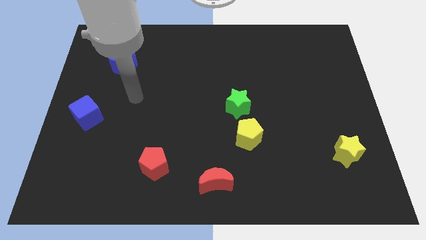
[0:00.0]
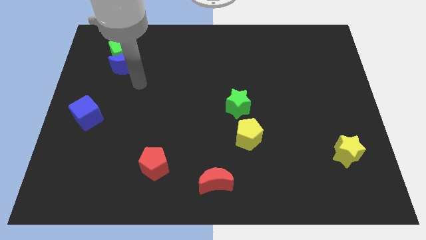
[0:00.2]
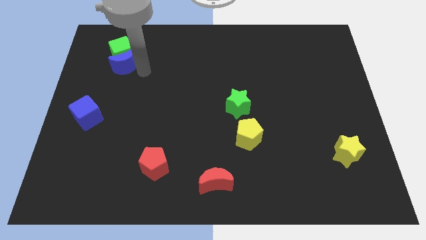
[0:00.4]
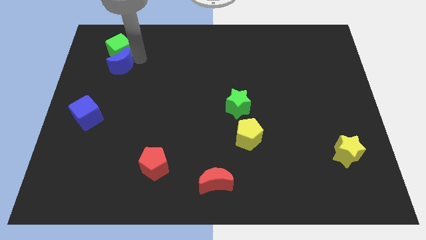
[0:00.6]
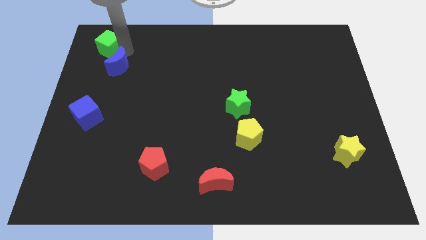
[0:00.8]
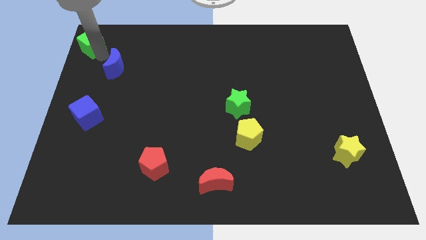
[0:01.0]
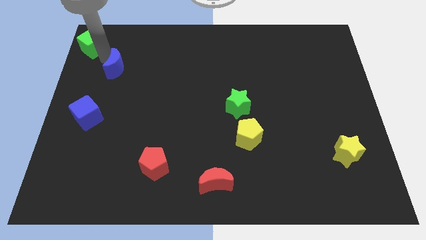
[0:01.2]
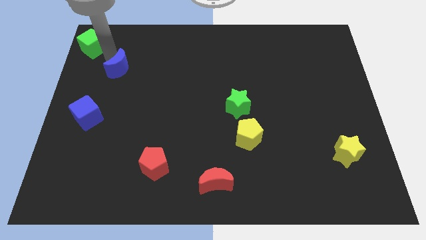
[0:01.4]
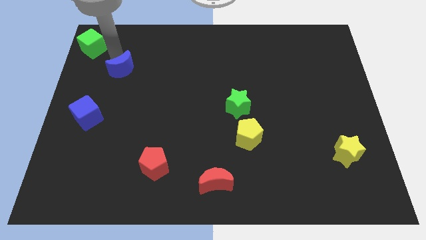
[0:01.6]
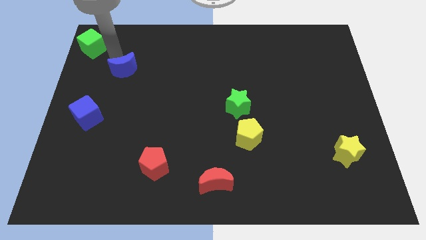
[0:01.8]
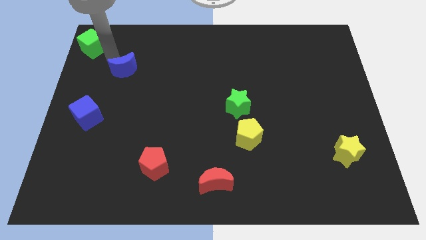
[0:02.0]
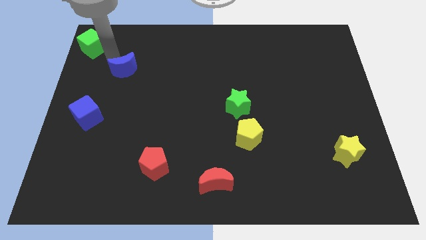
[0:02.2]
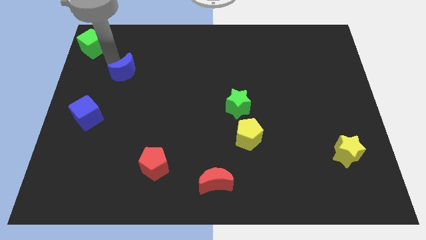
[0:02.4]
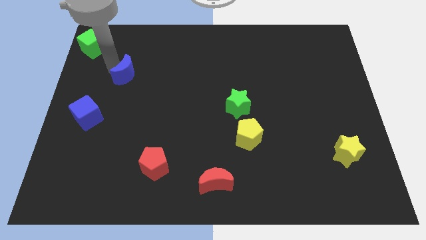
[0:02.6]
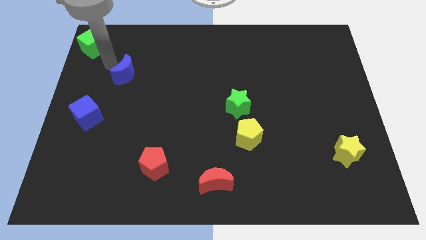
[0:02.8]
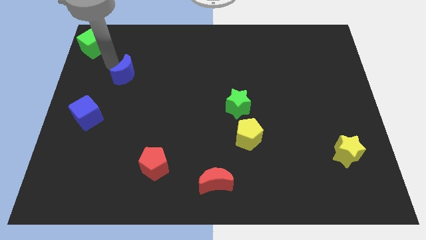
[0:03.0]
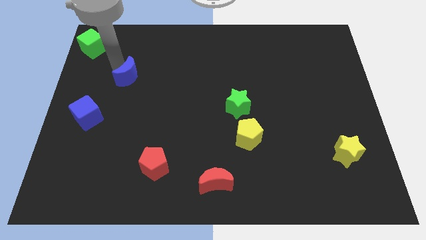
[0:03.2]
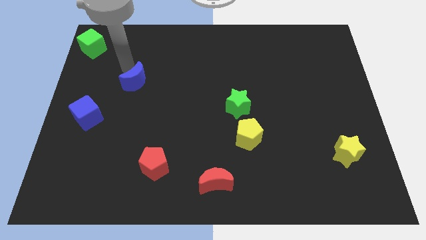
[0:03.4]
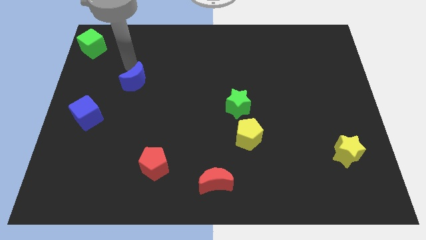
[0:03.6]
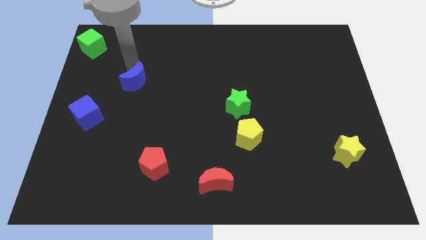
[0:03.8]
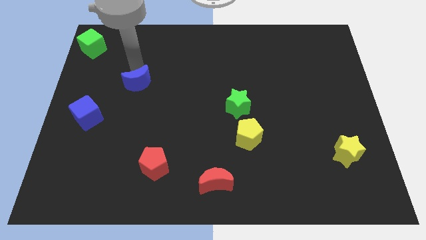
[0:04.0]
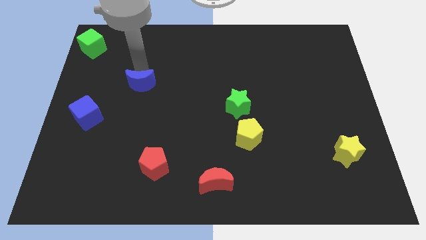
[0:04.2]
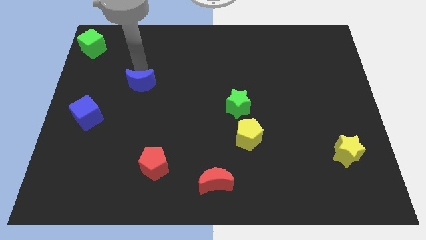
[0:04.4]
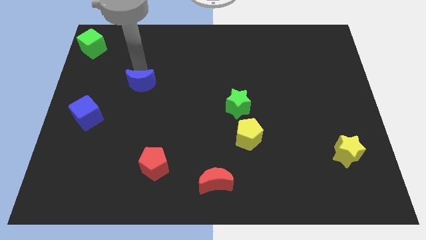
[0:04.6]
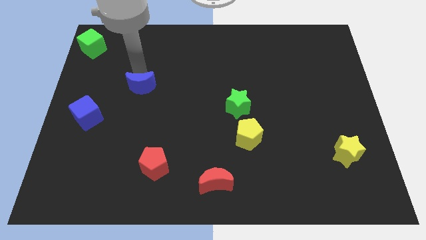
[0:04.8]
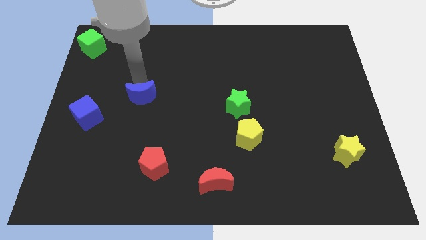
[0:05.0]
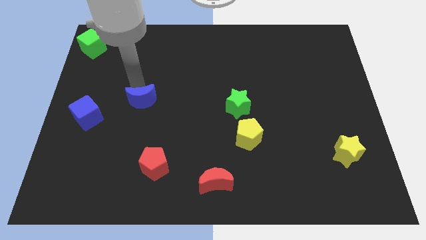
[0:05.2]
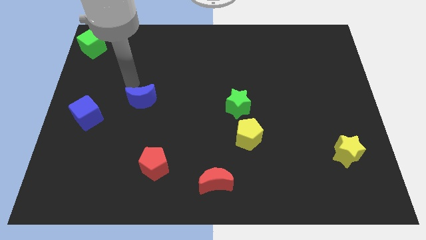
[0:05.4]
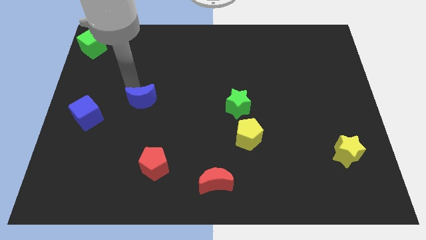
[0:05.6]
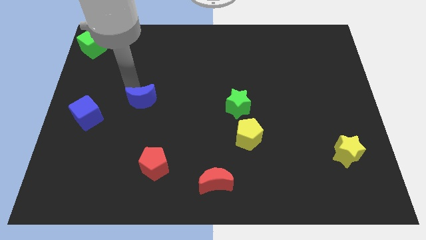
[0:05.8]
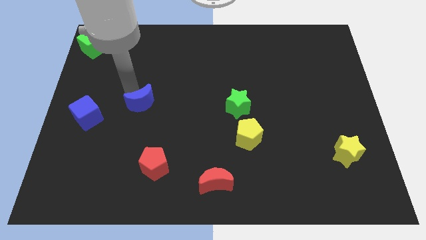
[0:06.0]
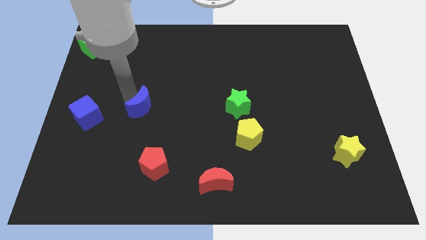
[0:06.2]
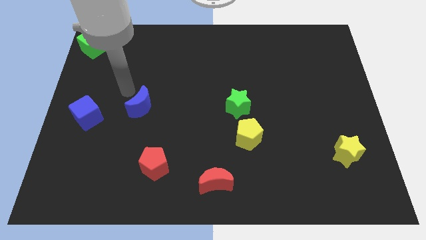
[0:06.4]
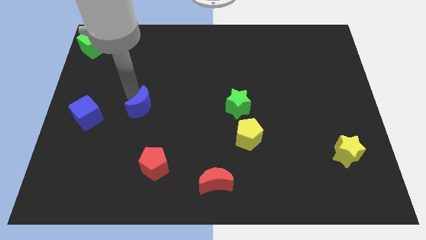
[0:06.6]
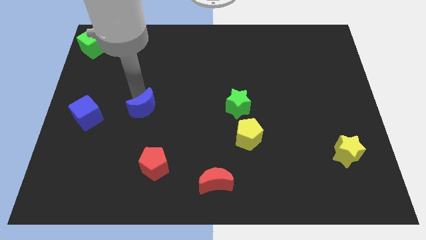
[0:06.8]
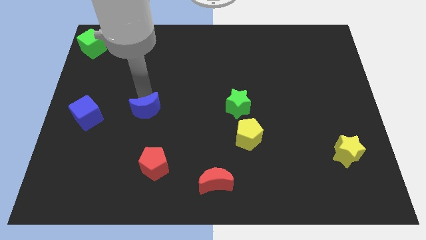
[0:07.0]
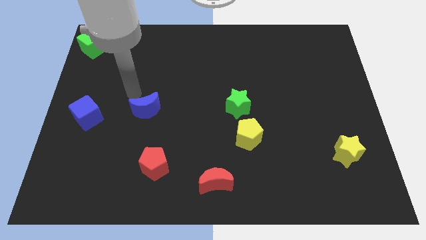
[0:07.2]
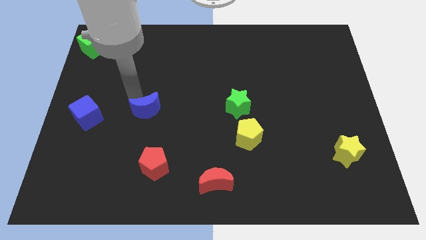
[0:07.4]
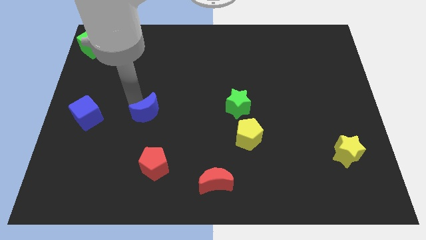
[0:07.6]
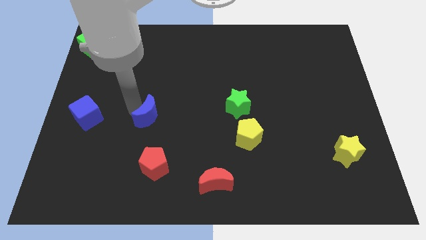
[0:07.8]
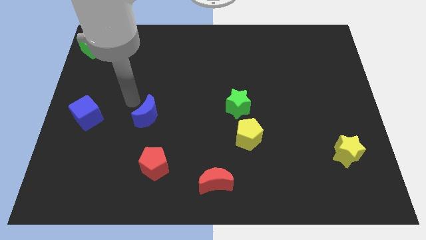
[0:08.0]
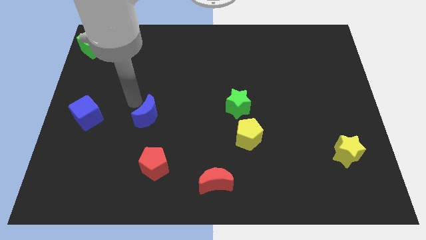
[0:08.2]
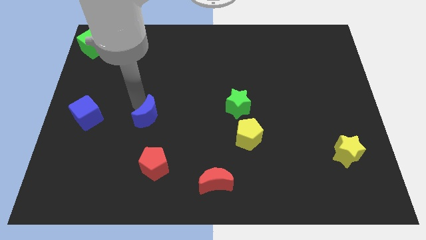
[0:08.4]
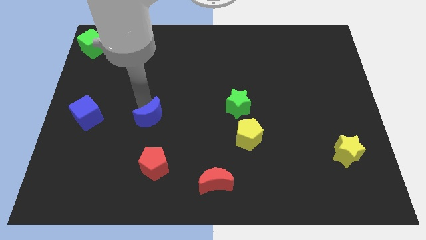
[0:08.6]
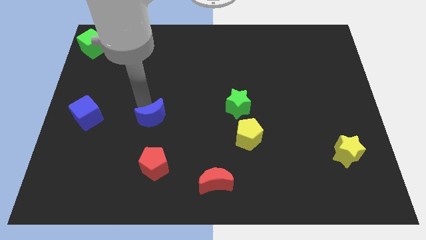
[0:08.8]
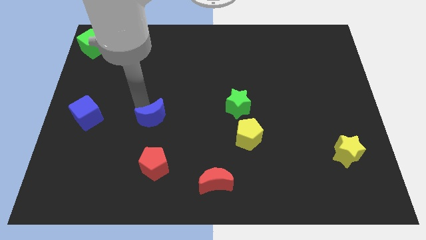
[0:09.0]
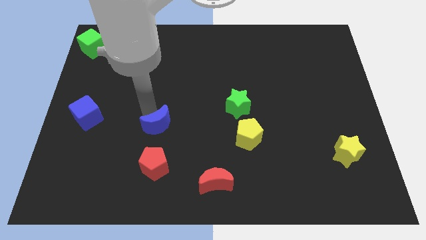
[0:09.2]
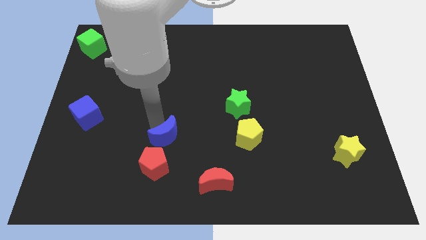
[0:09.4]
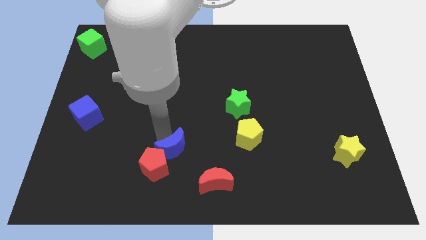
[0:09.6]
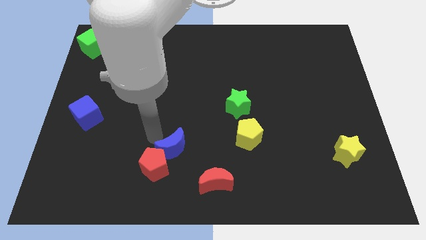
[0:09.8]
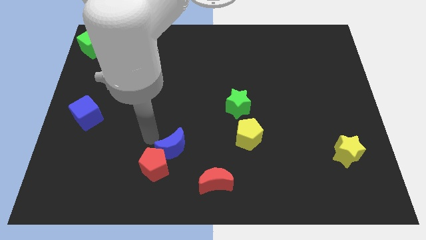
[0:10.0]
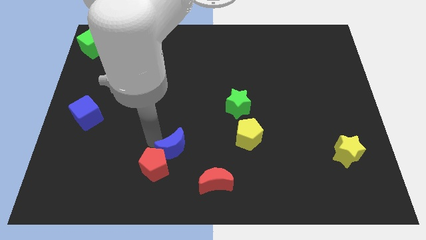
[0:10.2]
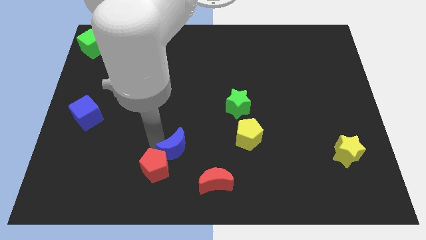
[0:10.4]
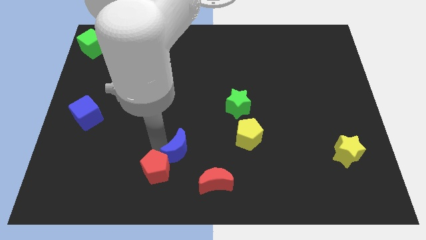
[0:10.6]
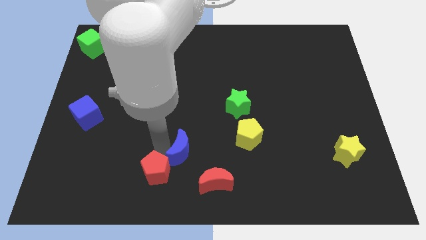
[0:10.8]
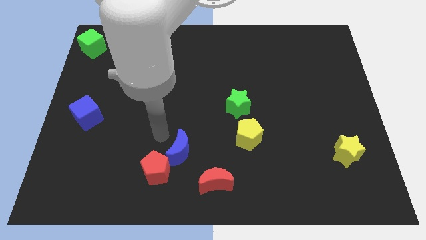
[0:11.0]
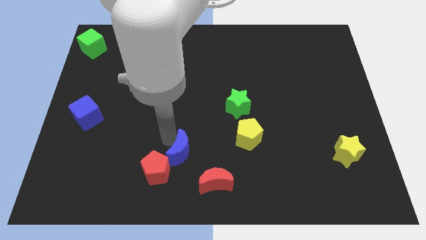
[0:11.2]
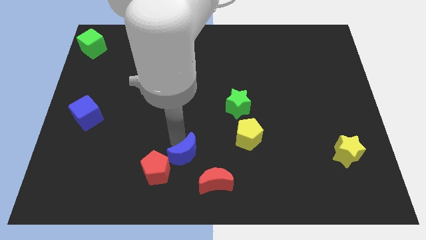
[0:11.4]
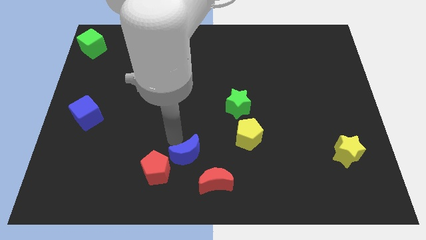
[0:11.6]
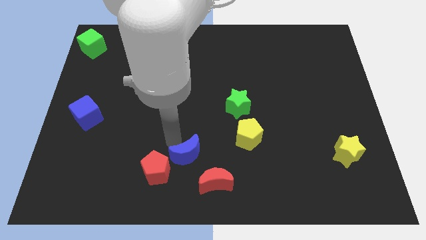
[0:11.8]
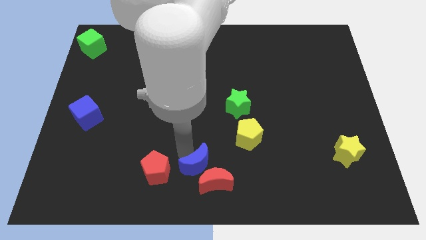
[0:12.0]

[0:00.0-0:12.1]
move the blue moon close to the red moon

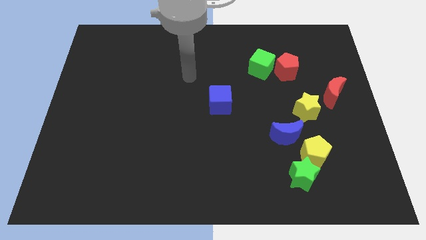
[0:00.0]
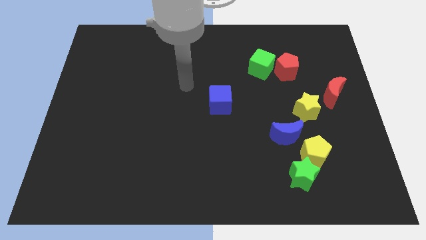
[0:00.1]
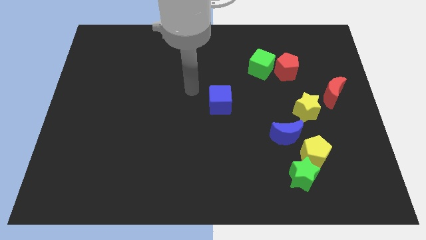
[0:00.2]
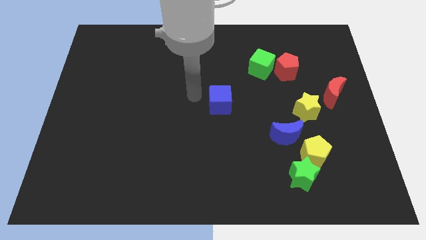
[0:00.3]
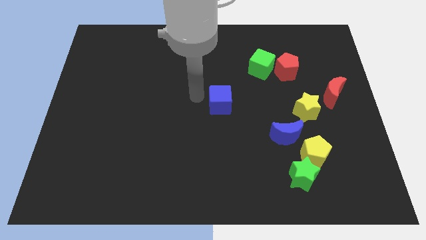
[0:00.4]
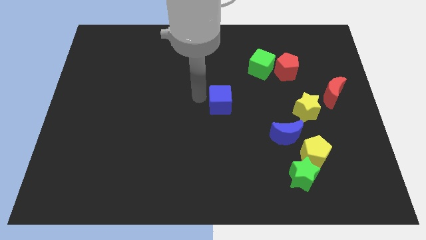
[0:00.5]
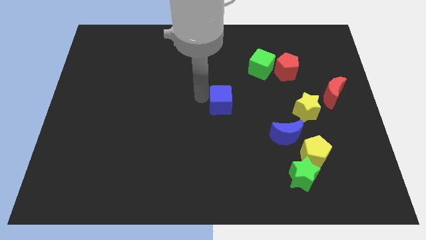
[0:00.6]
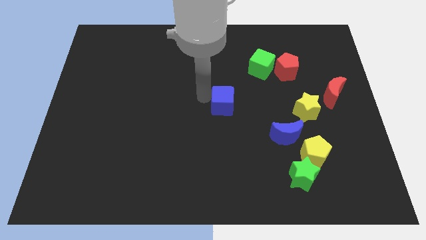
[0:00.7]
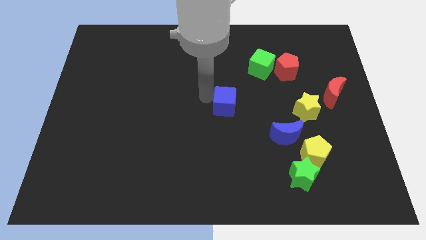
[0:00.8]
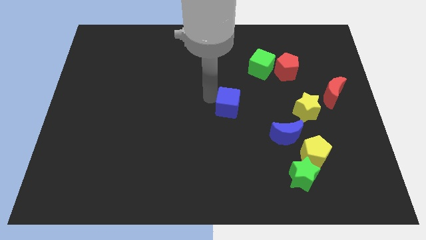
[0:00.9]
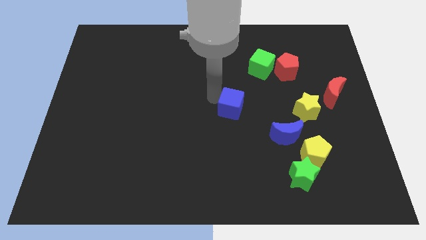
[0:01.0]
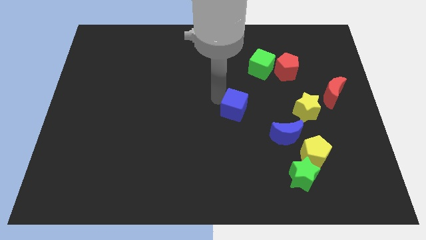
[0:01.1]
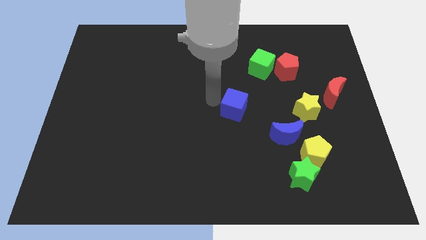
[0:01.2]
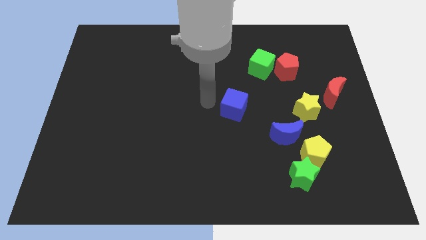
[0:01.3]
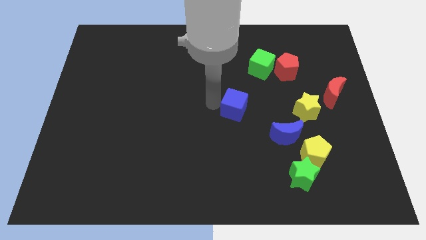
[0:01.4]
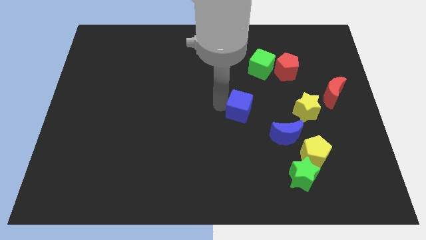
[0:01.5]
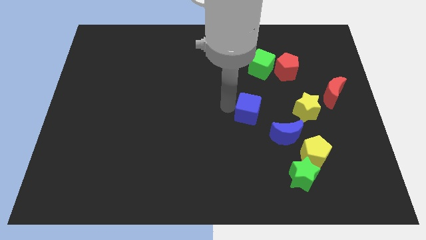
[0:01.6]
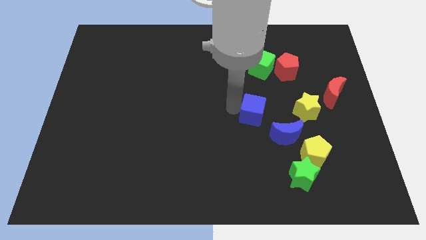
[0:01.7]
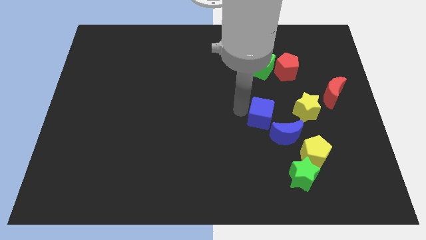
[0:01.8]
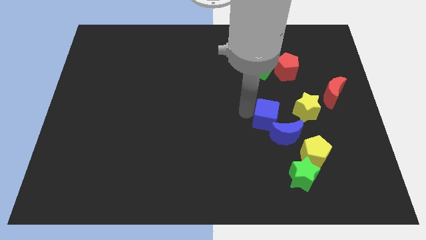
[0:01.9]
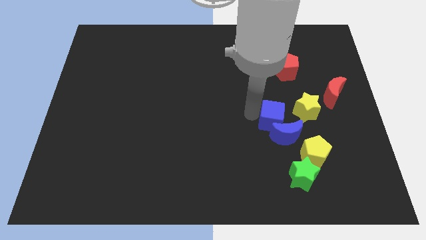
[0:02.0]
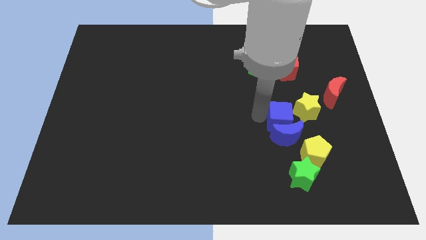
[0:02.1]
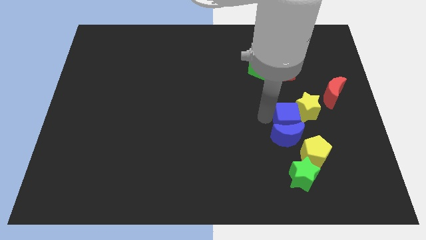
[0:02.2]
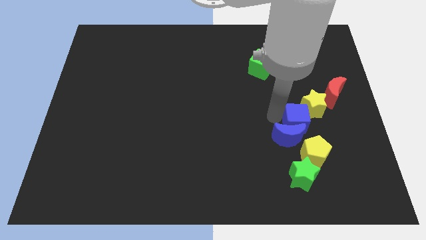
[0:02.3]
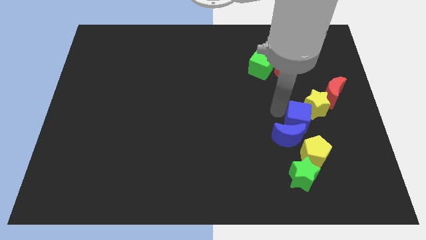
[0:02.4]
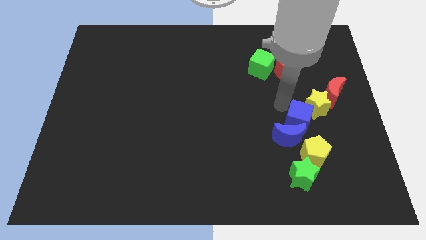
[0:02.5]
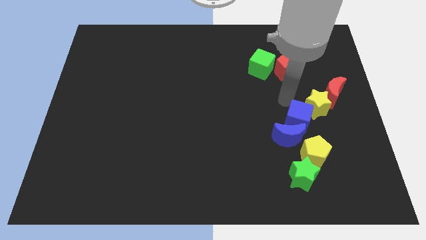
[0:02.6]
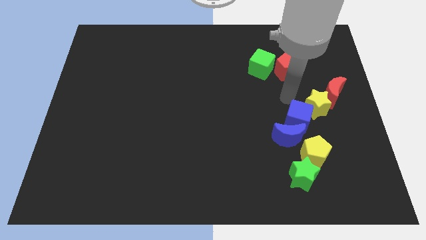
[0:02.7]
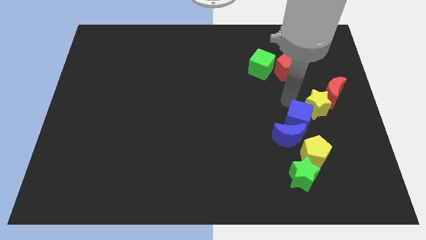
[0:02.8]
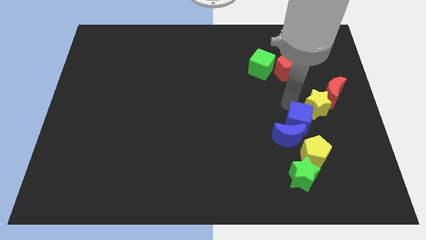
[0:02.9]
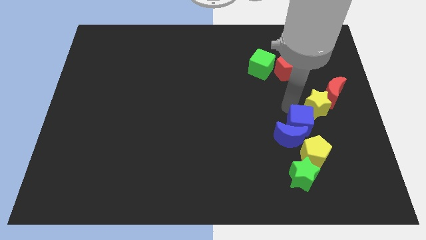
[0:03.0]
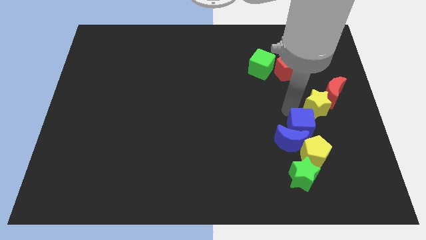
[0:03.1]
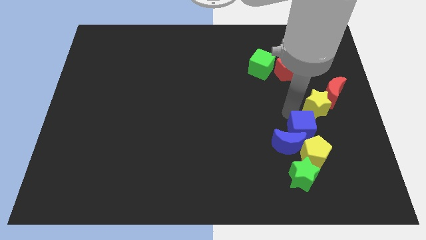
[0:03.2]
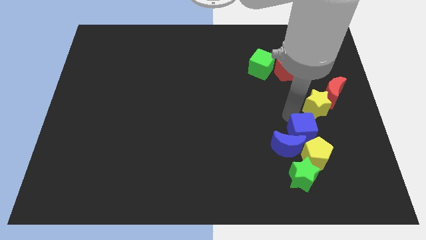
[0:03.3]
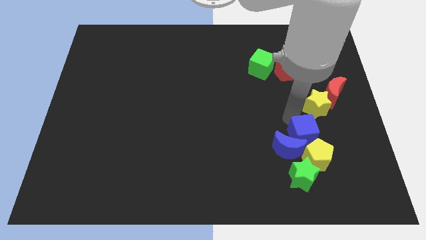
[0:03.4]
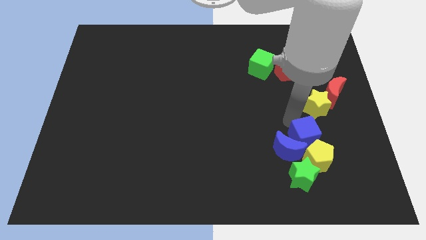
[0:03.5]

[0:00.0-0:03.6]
push the blue cube towards the yellow pentagon
